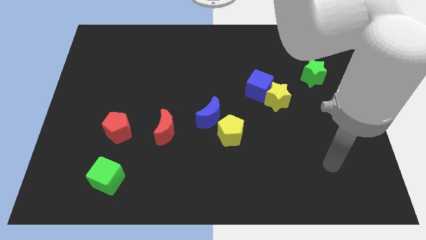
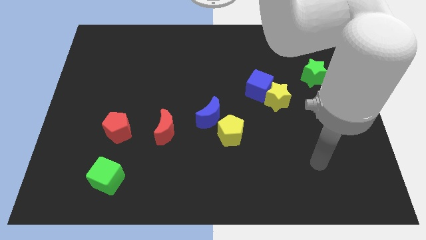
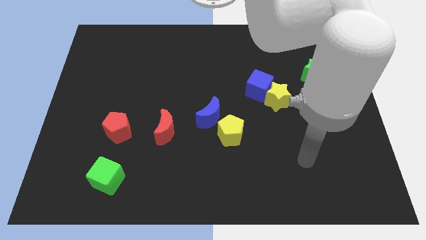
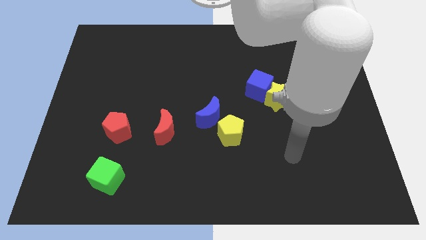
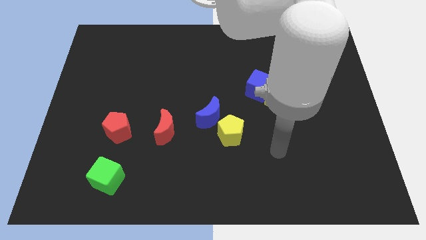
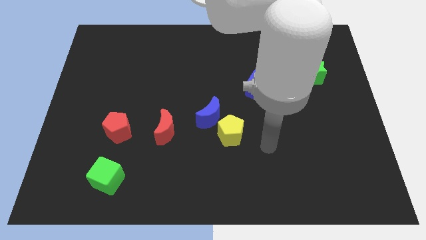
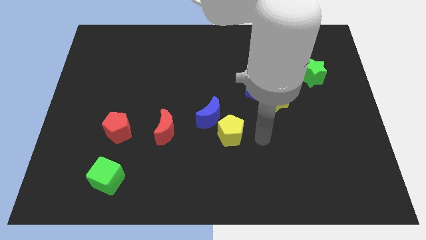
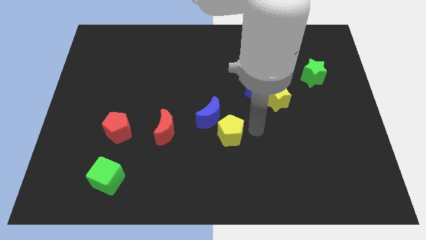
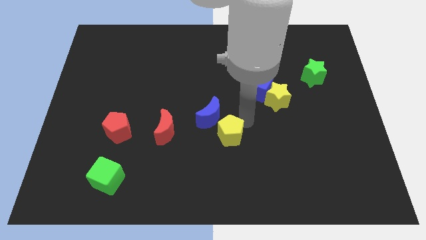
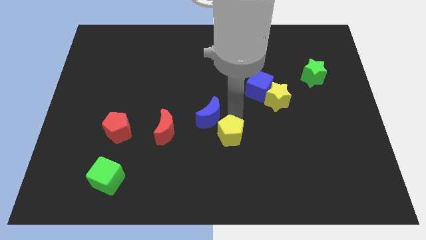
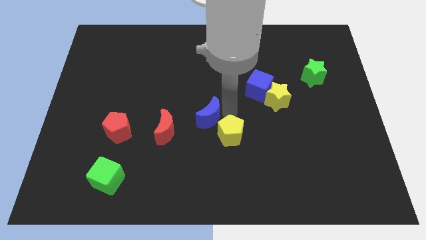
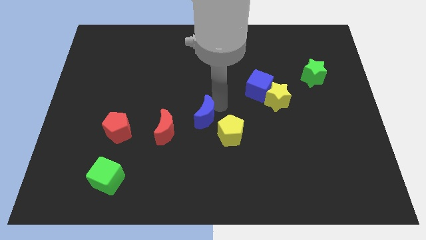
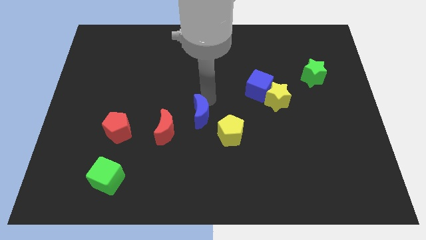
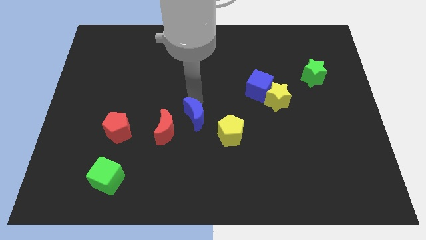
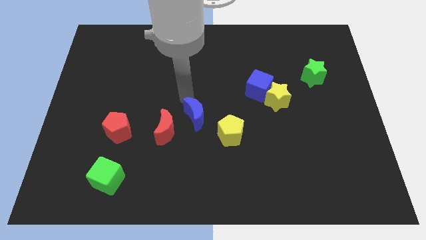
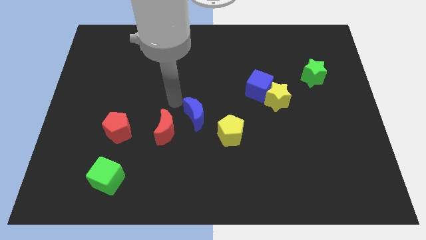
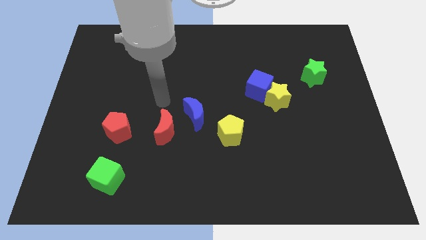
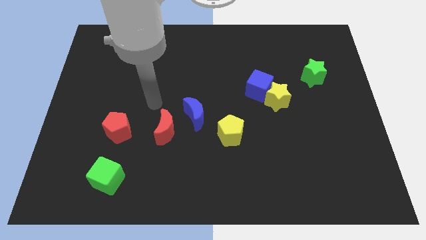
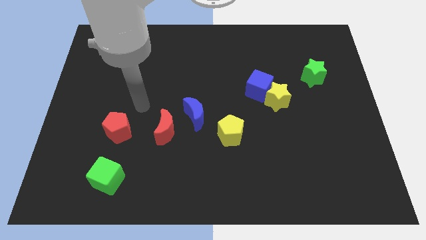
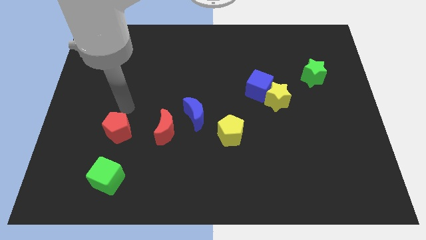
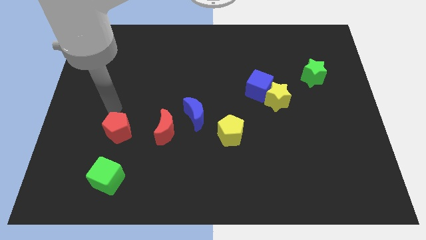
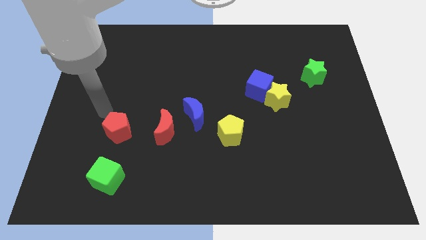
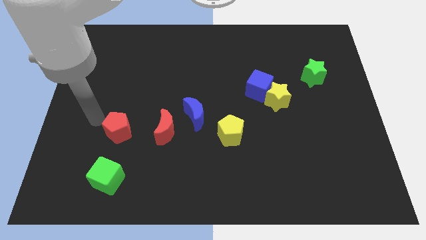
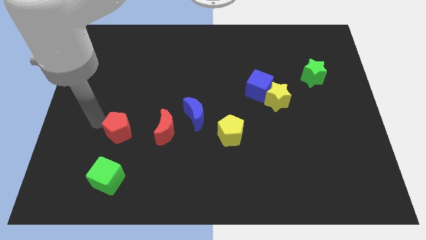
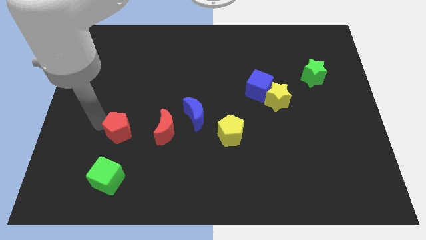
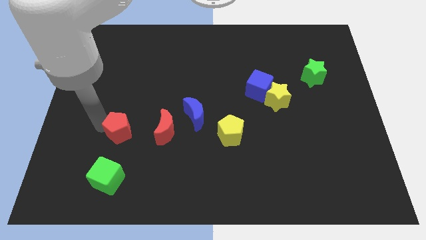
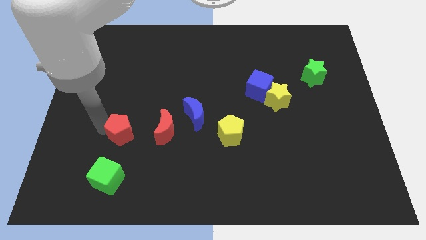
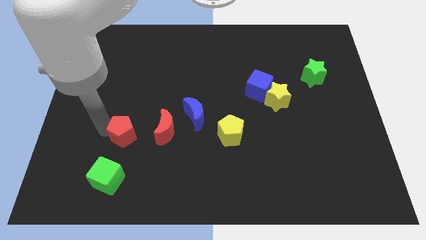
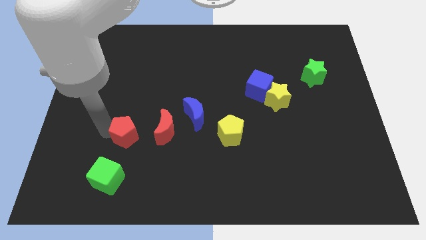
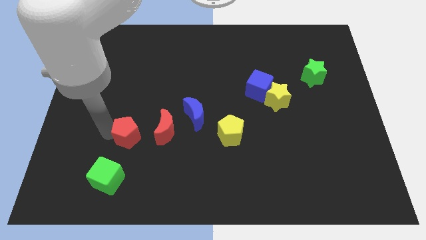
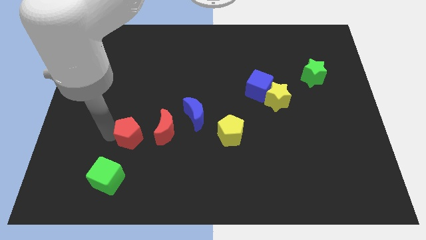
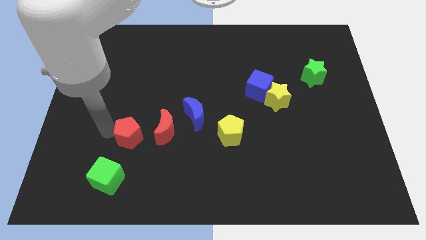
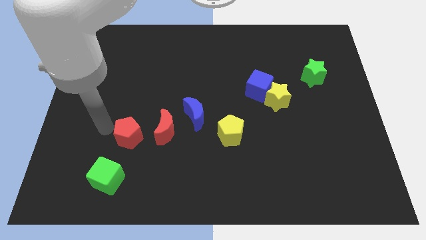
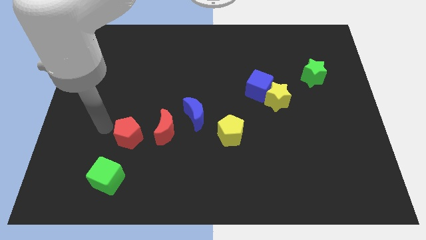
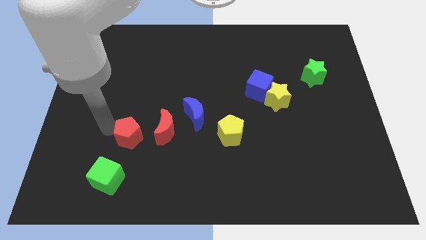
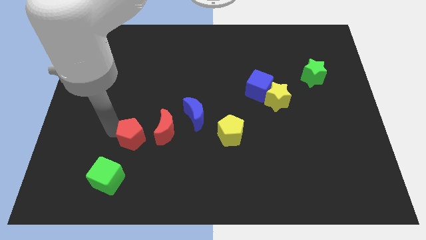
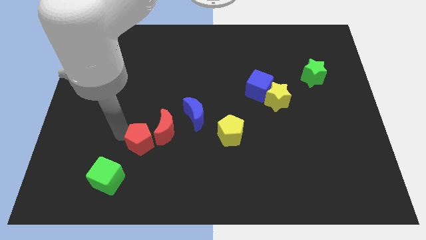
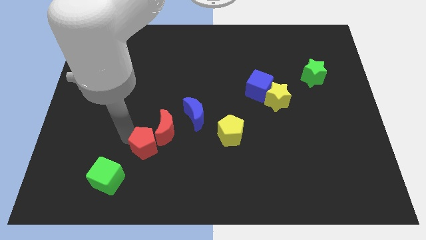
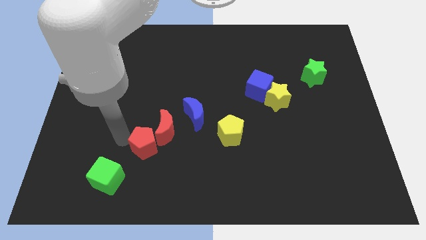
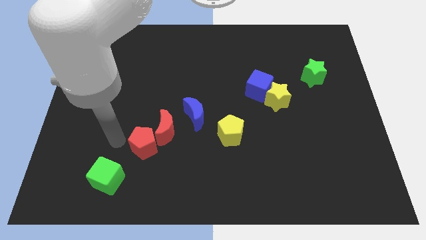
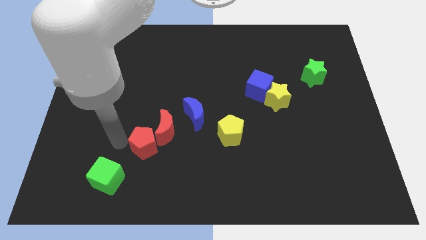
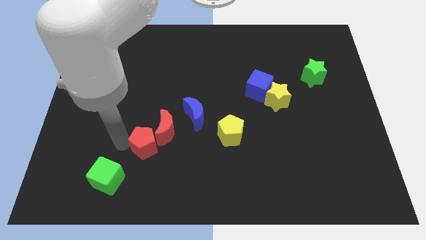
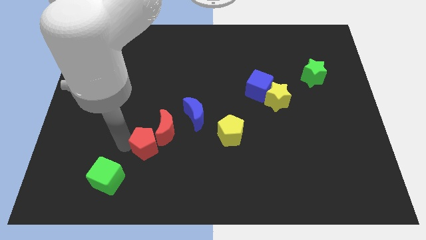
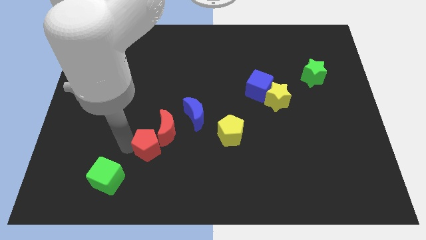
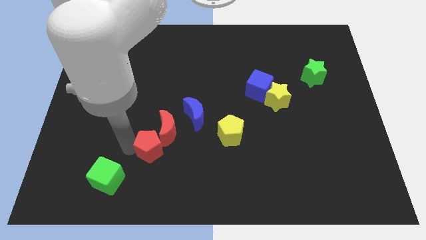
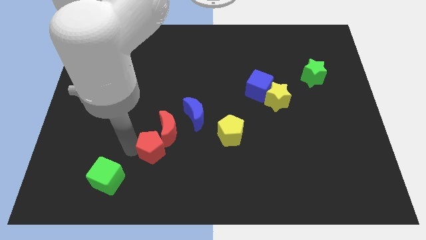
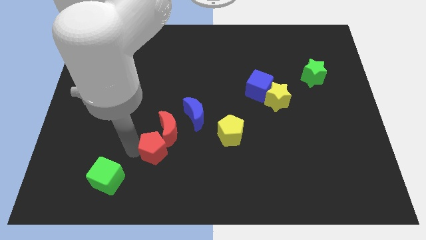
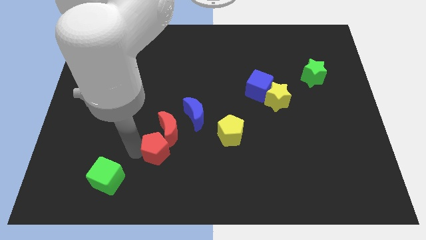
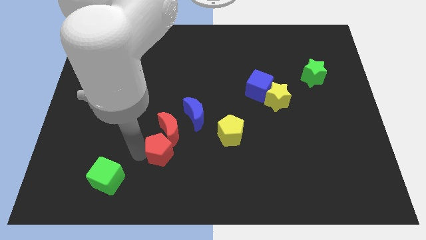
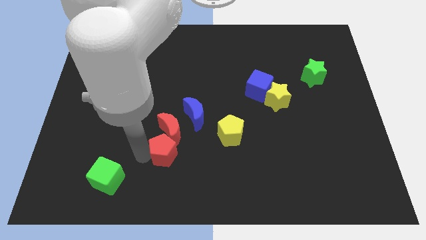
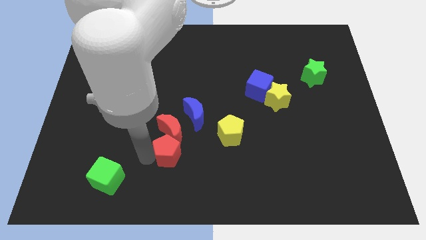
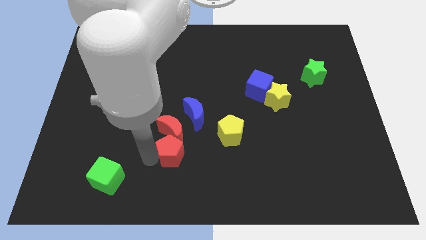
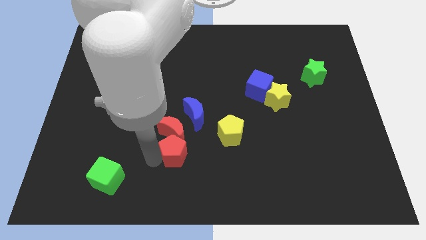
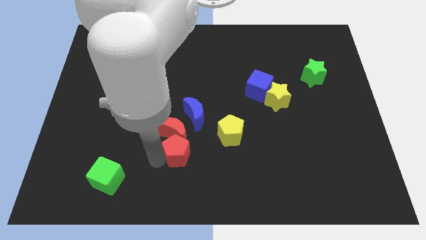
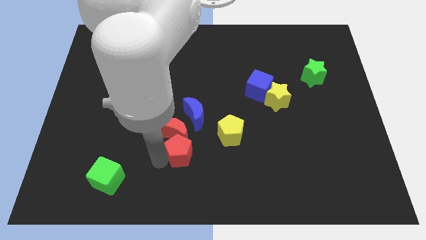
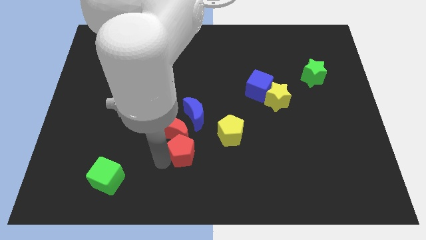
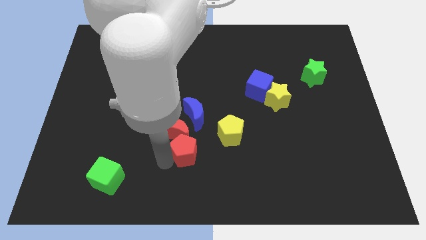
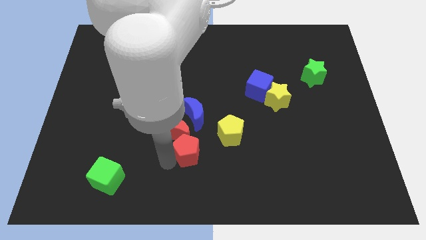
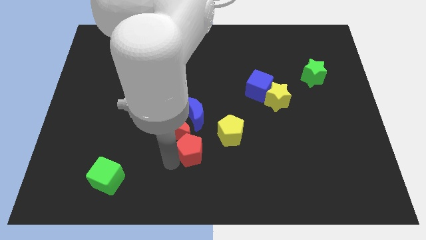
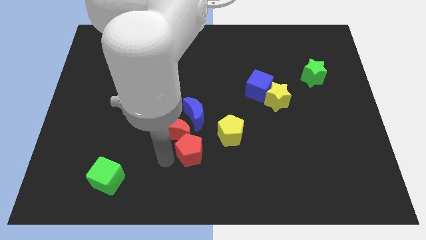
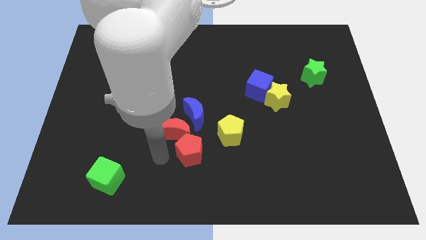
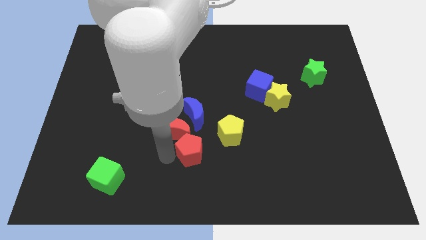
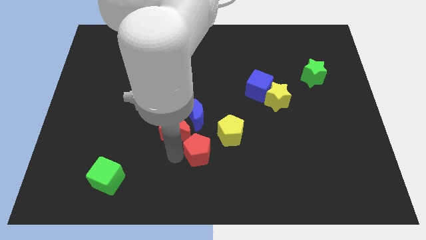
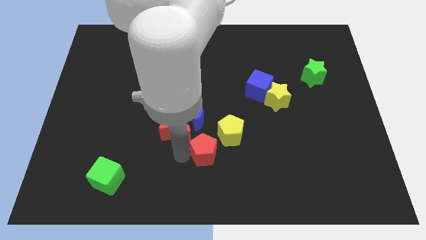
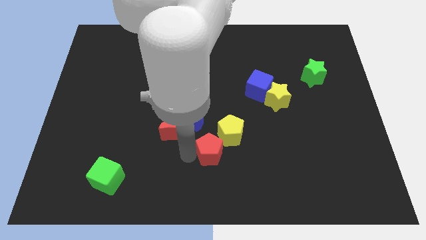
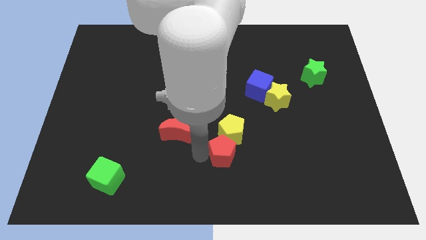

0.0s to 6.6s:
slide the red pentagon right

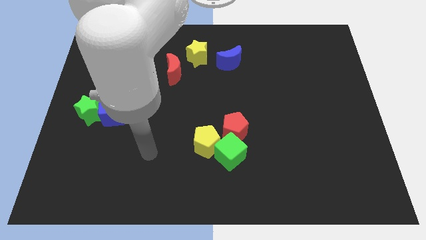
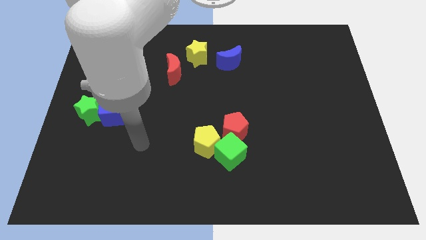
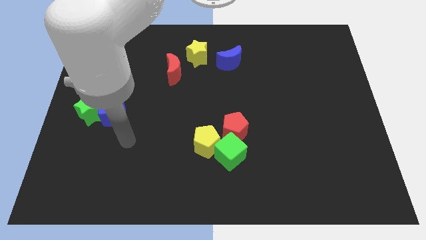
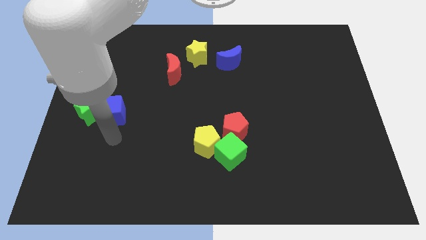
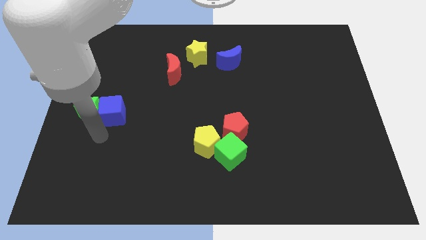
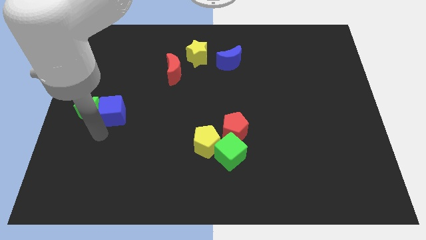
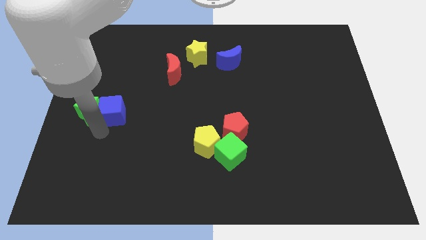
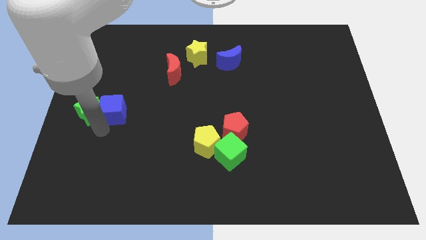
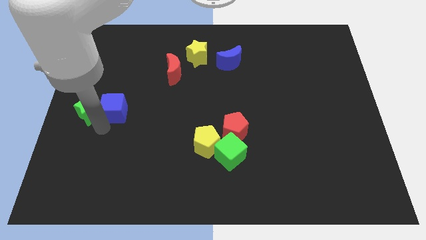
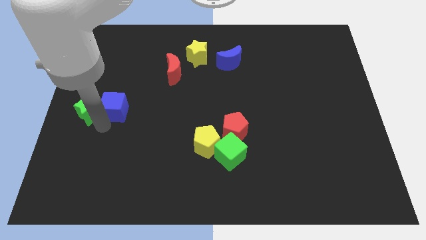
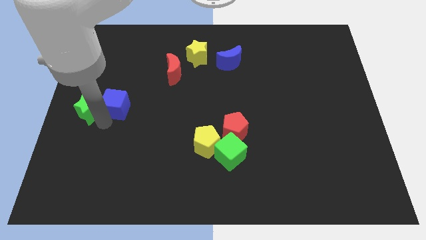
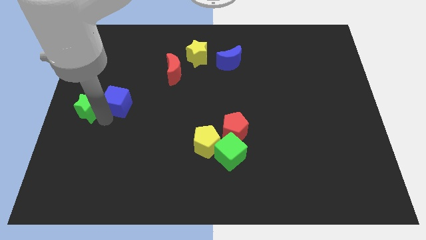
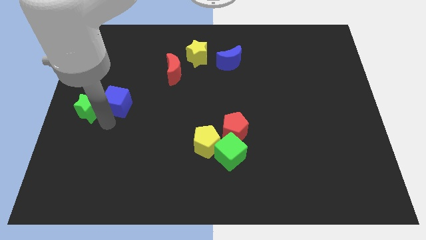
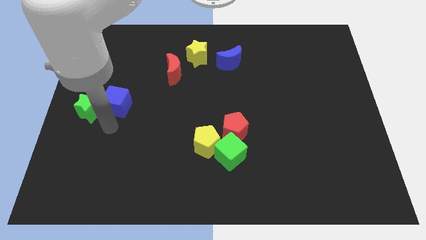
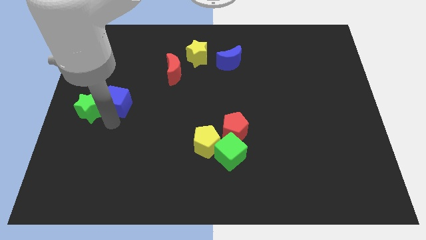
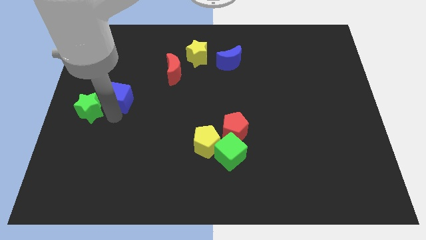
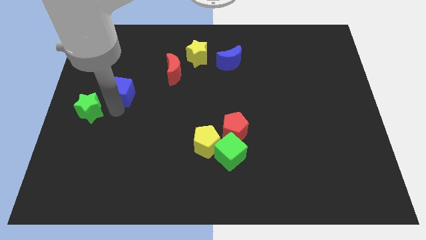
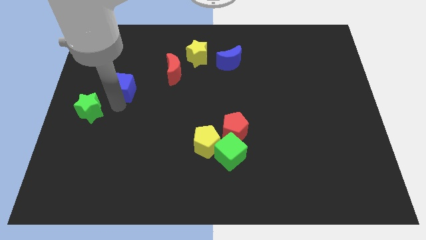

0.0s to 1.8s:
move the blue cube up somewhat
